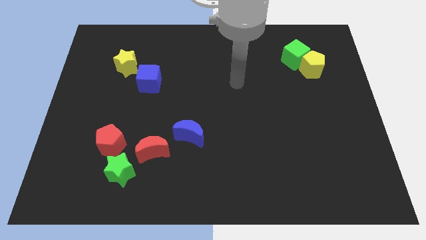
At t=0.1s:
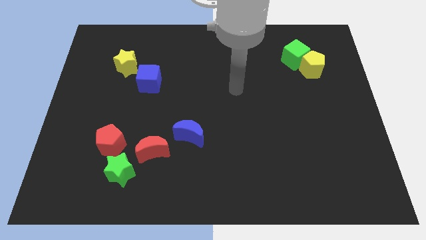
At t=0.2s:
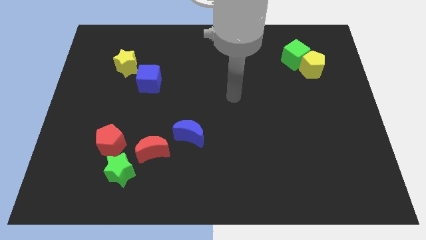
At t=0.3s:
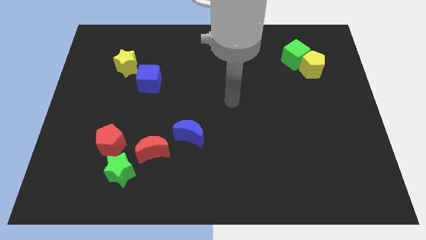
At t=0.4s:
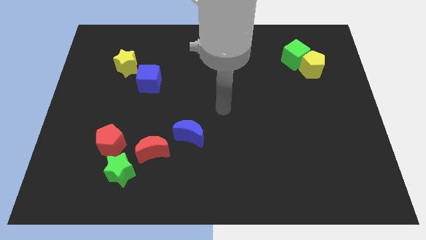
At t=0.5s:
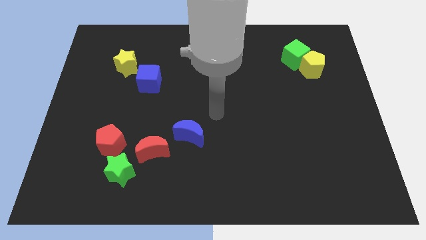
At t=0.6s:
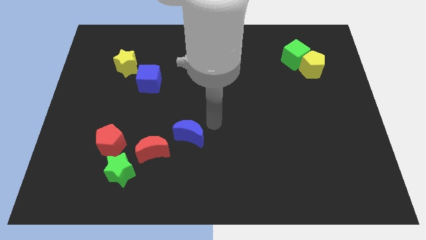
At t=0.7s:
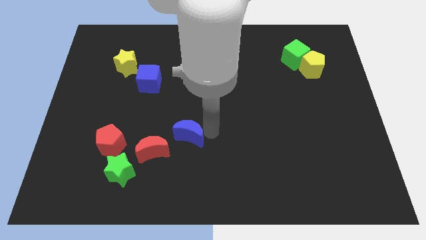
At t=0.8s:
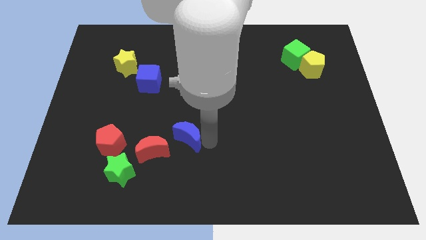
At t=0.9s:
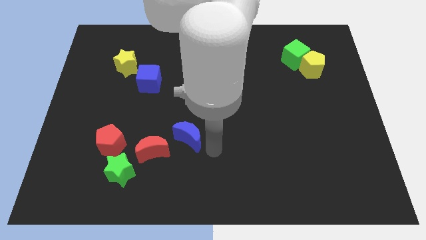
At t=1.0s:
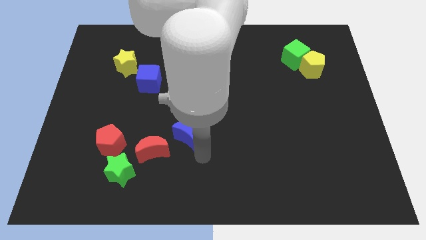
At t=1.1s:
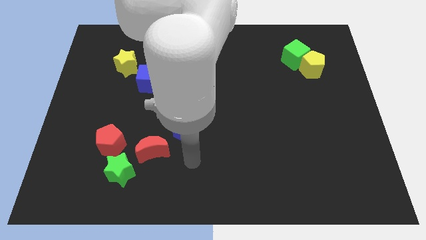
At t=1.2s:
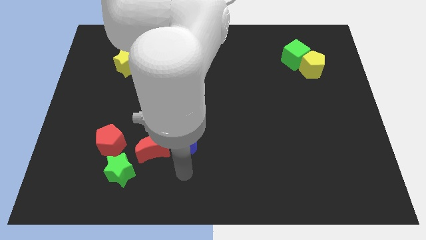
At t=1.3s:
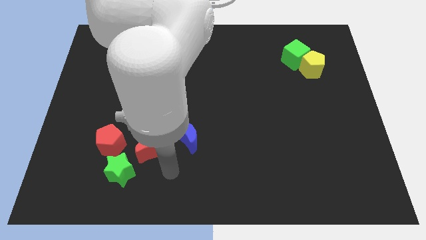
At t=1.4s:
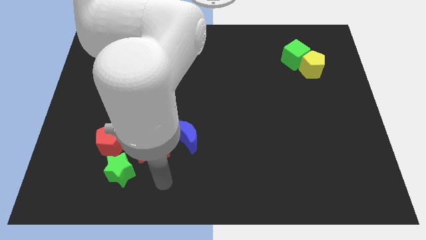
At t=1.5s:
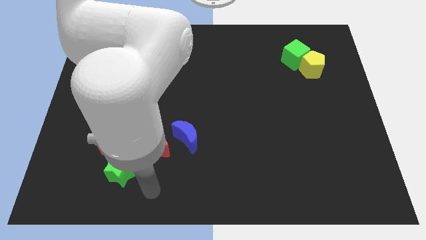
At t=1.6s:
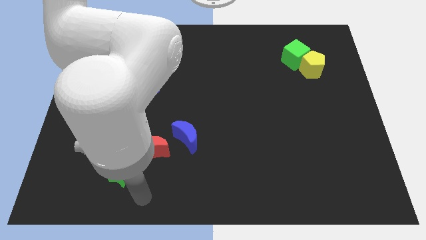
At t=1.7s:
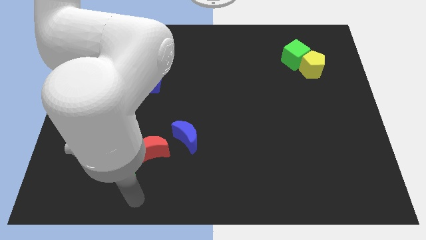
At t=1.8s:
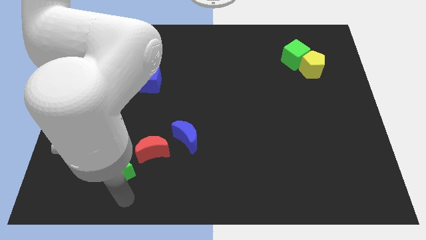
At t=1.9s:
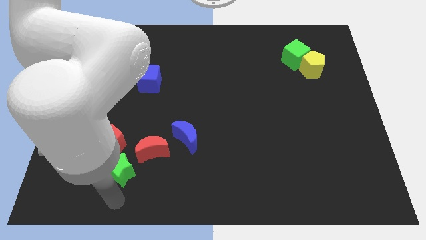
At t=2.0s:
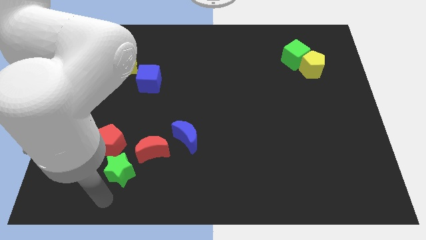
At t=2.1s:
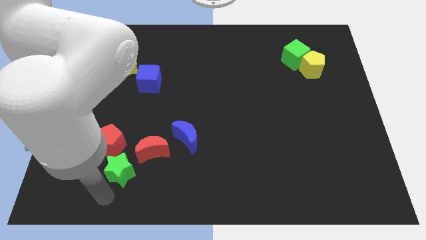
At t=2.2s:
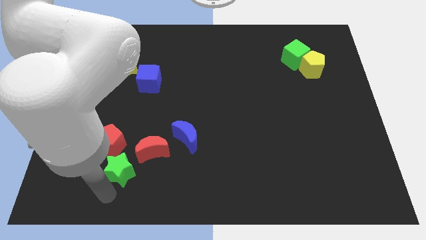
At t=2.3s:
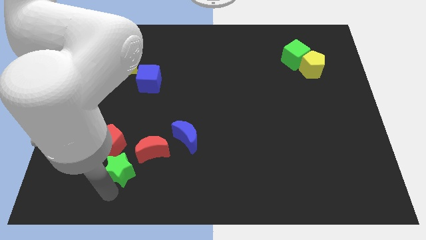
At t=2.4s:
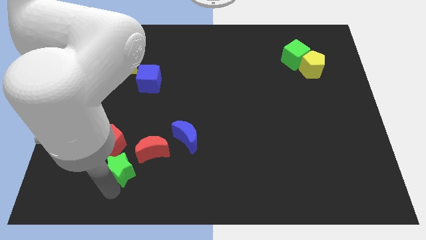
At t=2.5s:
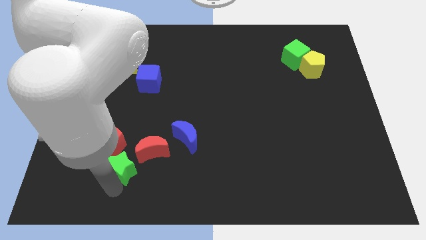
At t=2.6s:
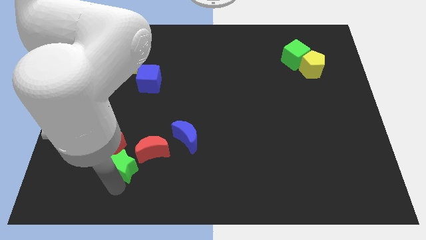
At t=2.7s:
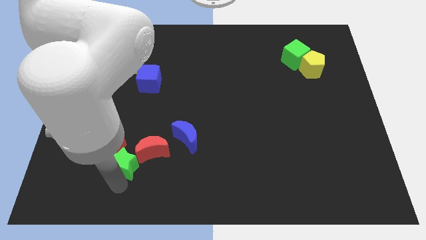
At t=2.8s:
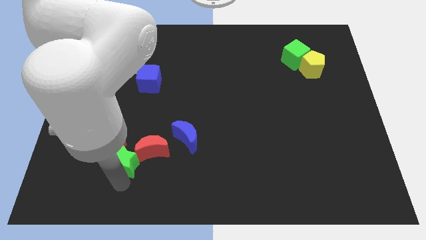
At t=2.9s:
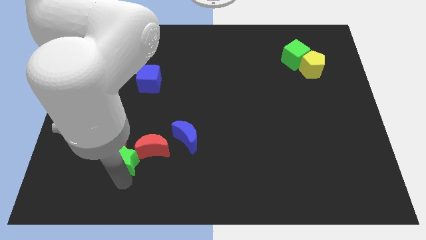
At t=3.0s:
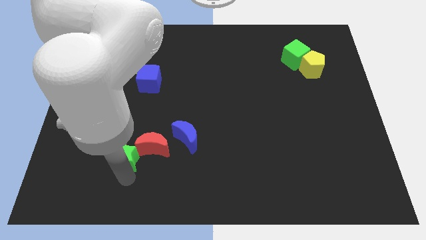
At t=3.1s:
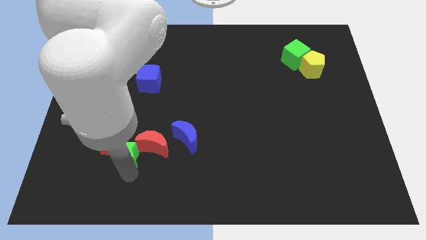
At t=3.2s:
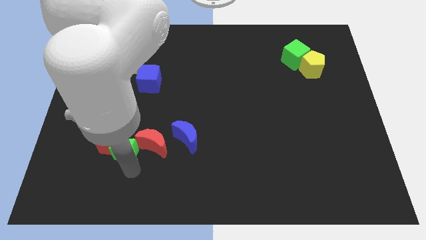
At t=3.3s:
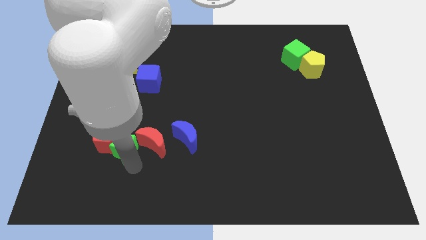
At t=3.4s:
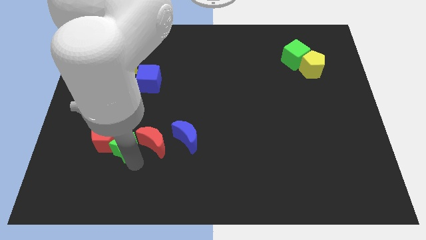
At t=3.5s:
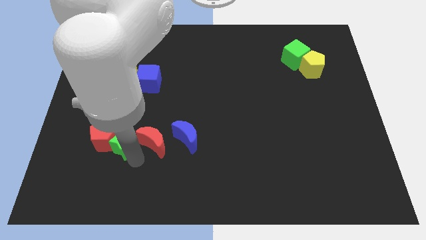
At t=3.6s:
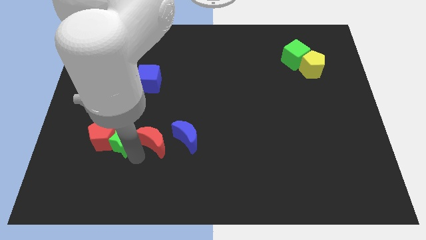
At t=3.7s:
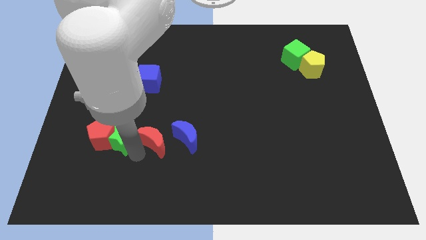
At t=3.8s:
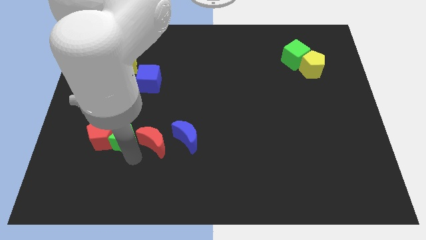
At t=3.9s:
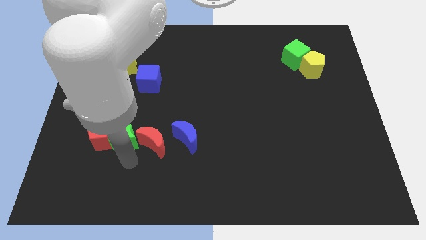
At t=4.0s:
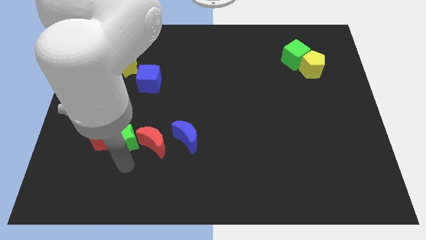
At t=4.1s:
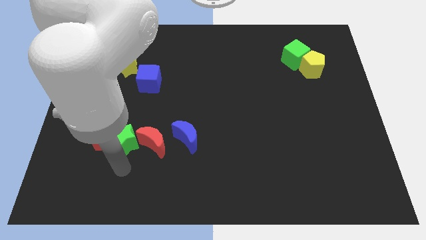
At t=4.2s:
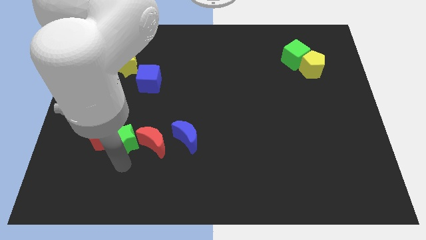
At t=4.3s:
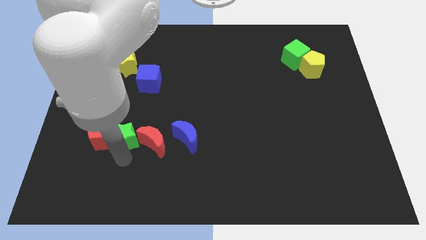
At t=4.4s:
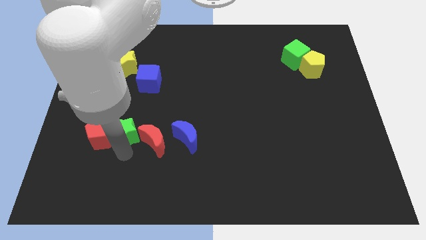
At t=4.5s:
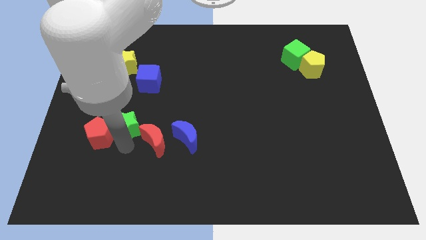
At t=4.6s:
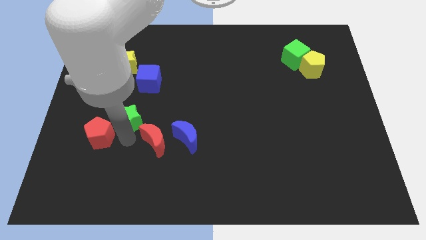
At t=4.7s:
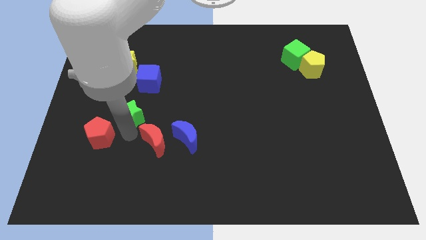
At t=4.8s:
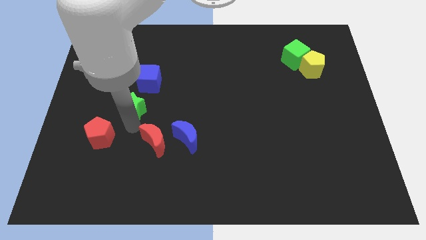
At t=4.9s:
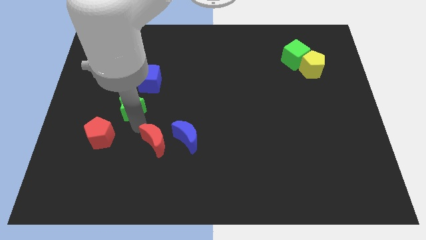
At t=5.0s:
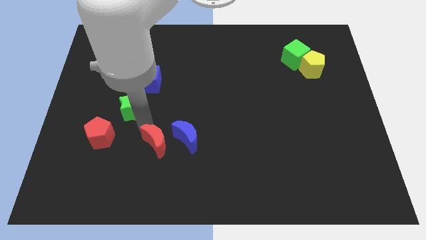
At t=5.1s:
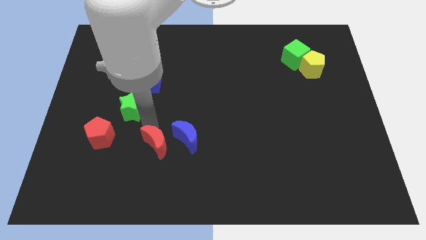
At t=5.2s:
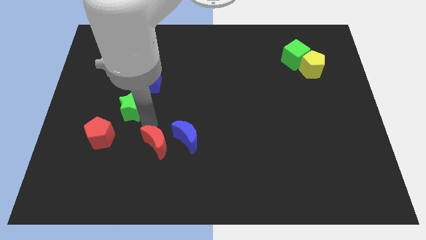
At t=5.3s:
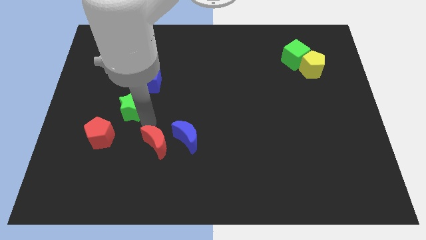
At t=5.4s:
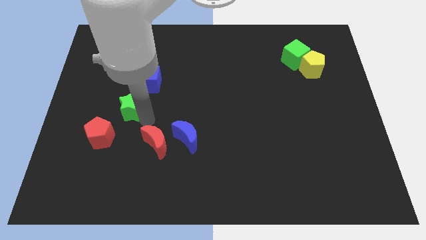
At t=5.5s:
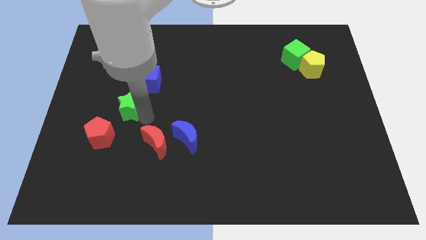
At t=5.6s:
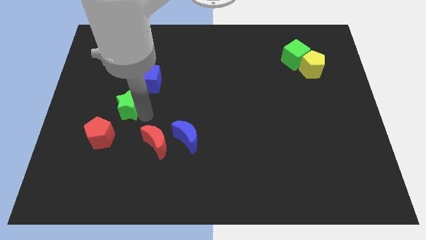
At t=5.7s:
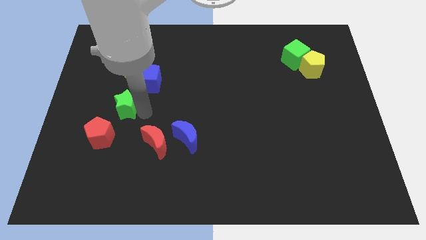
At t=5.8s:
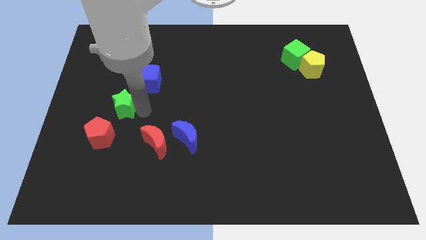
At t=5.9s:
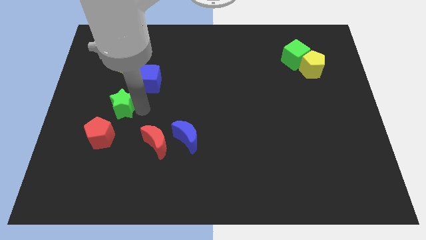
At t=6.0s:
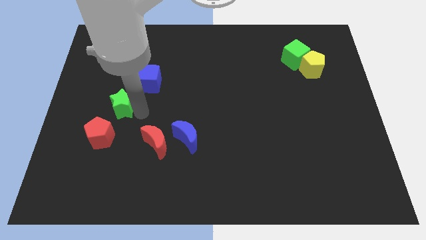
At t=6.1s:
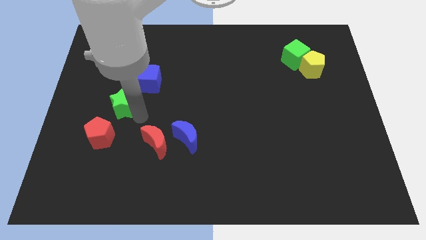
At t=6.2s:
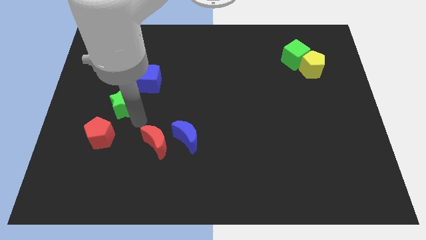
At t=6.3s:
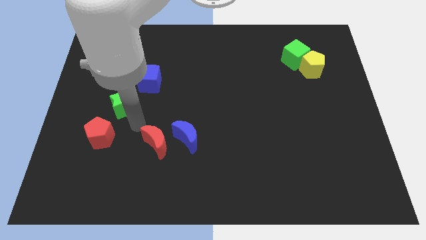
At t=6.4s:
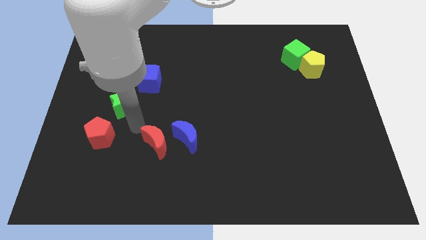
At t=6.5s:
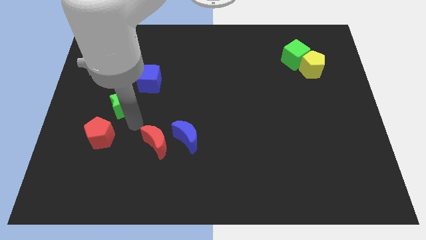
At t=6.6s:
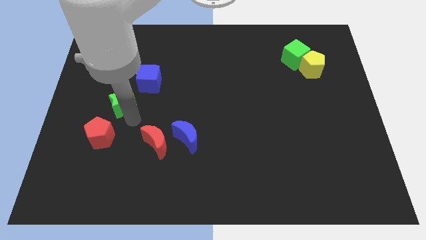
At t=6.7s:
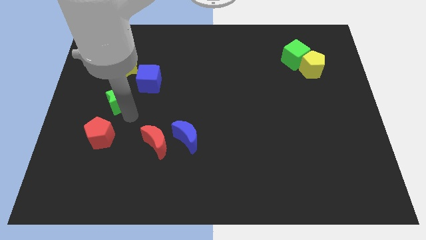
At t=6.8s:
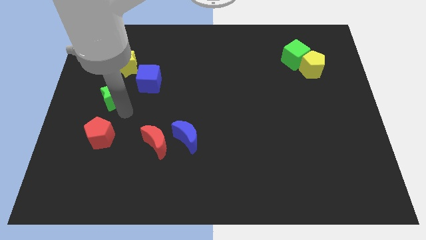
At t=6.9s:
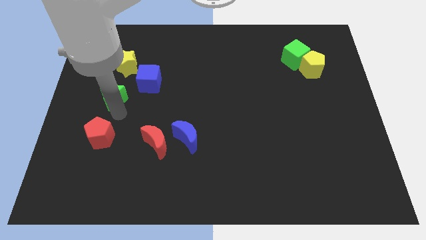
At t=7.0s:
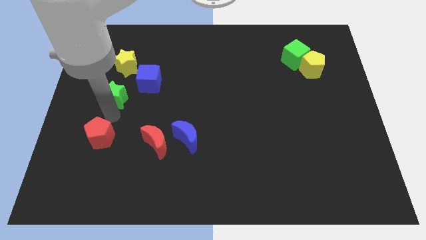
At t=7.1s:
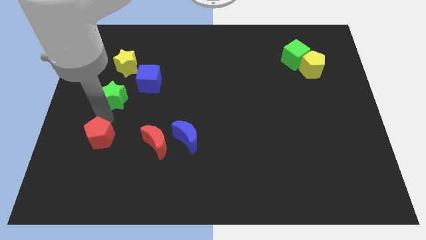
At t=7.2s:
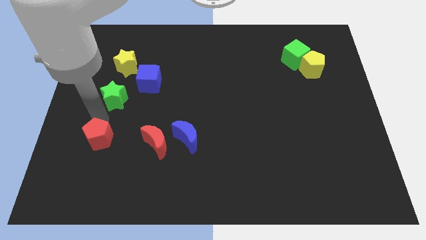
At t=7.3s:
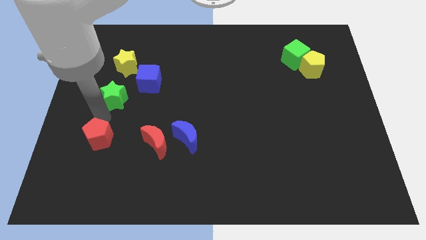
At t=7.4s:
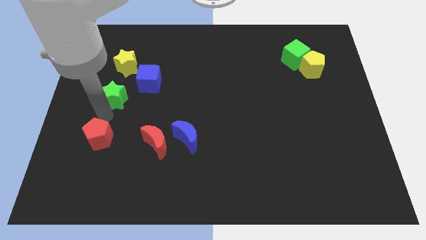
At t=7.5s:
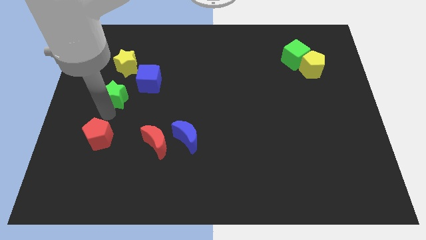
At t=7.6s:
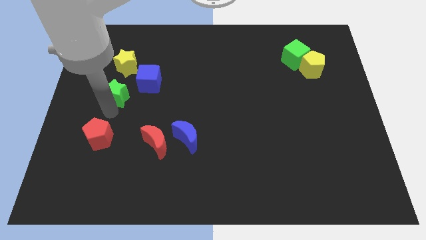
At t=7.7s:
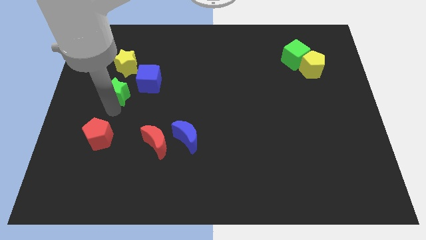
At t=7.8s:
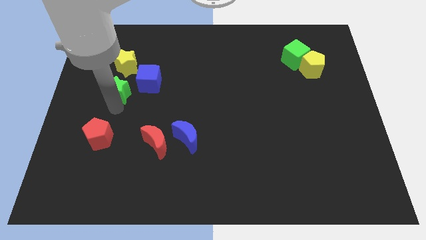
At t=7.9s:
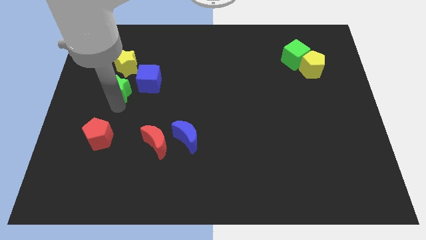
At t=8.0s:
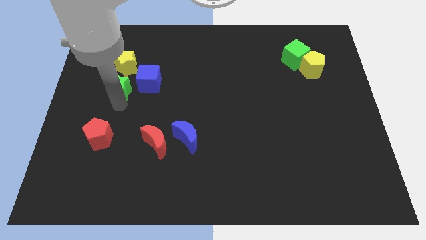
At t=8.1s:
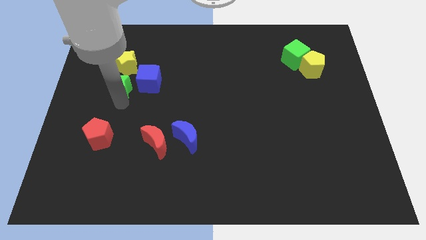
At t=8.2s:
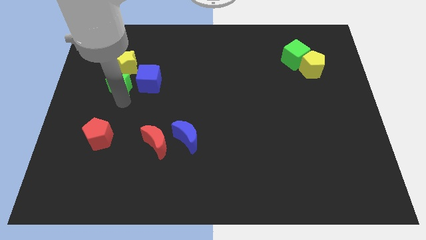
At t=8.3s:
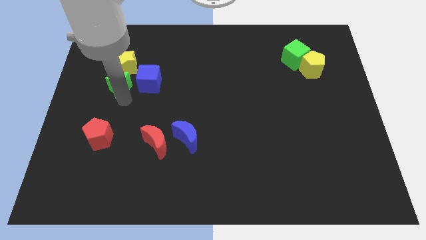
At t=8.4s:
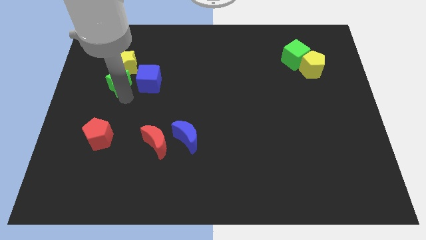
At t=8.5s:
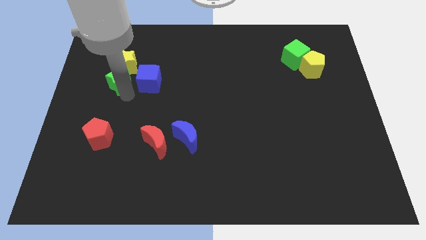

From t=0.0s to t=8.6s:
put the green star close to the yellow star
